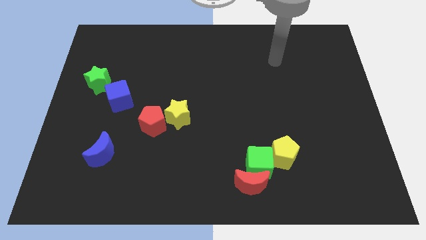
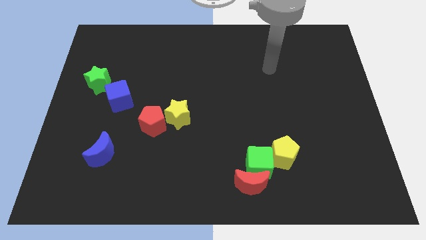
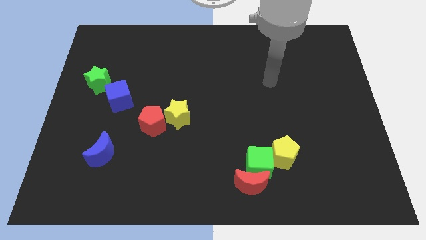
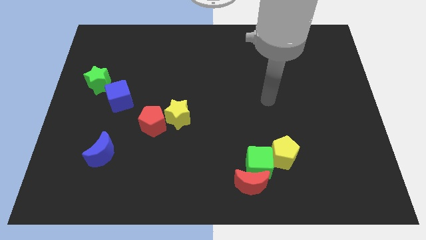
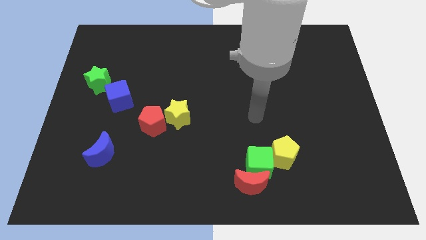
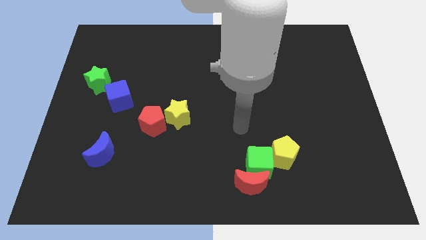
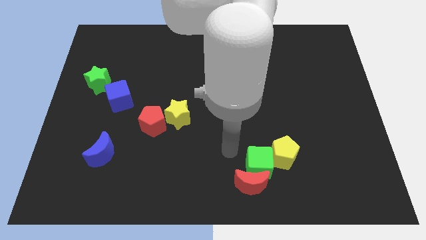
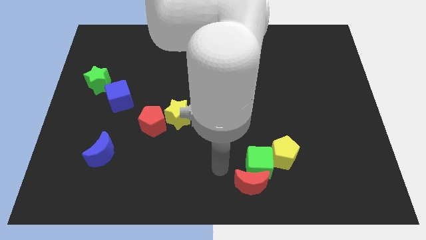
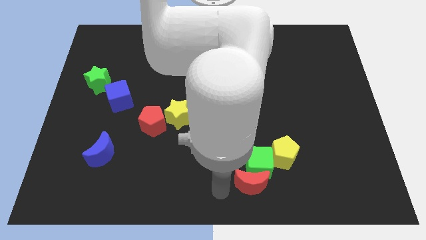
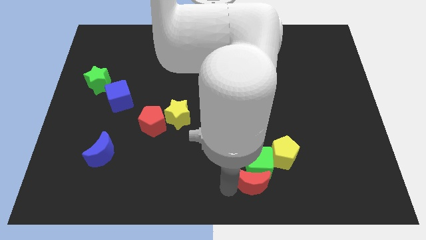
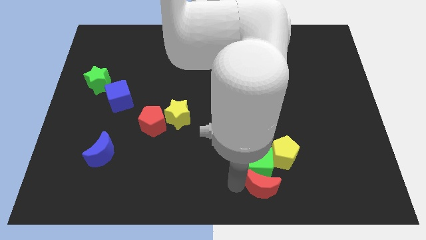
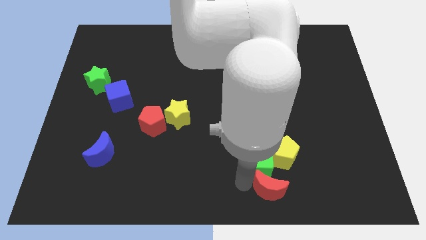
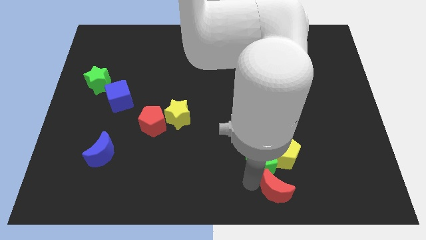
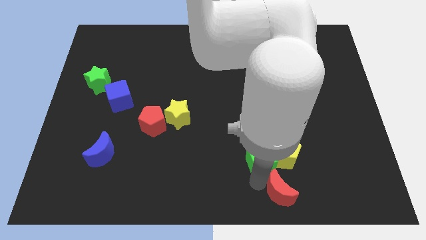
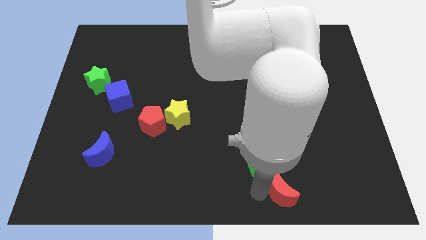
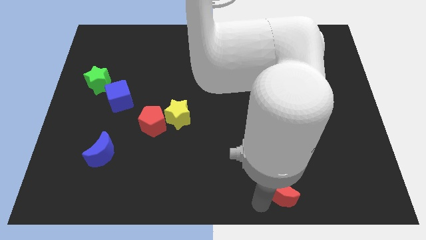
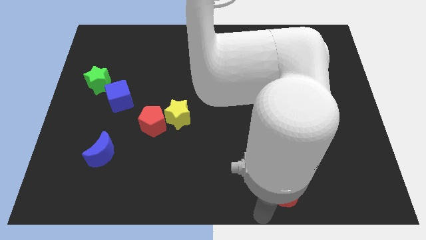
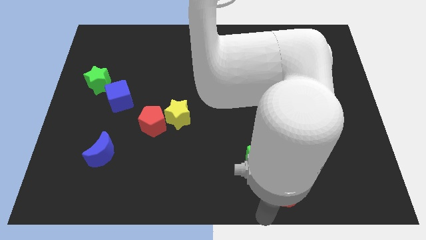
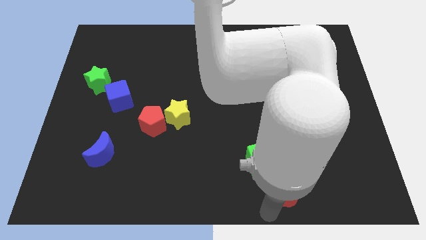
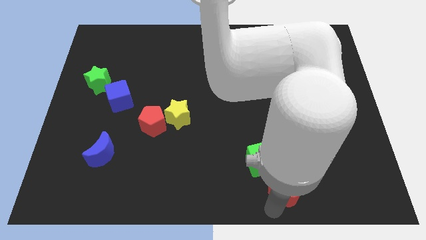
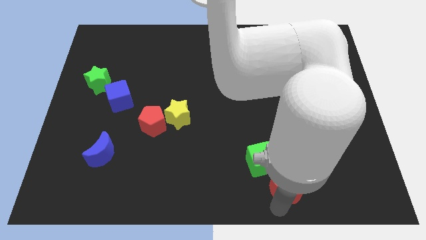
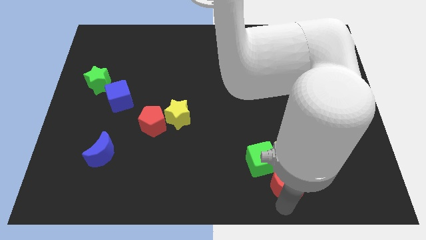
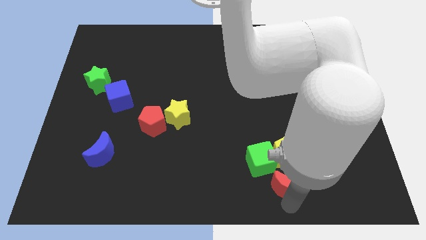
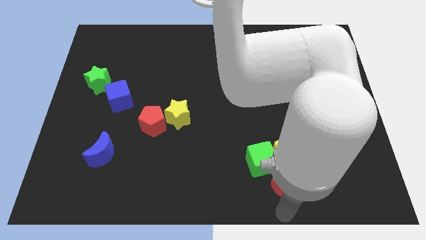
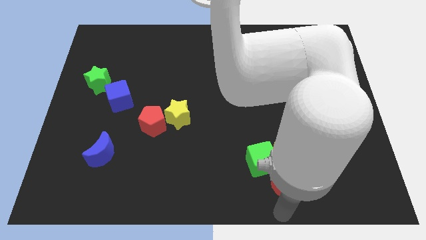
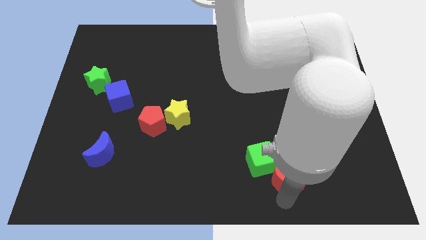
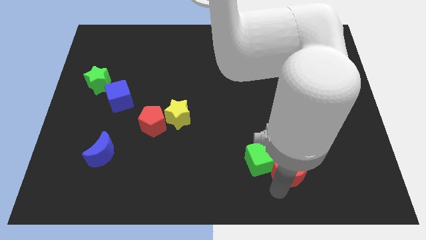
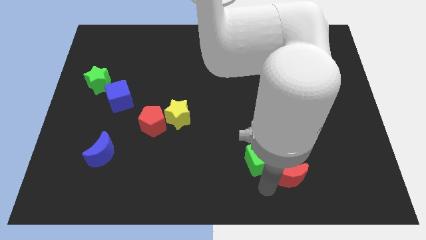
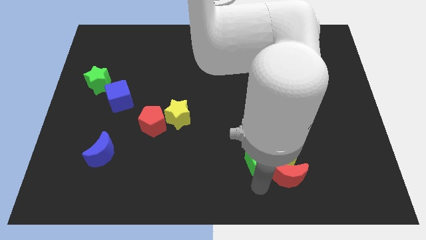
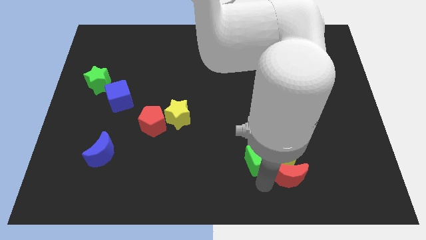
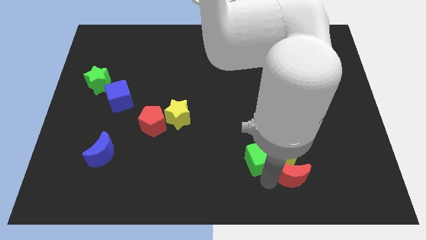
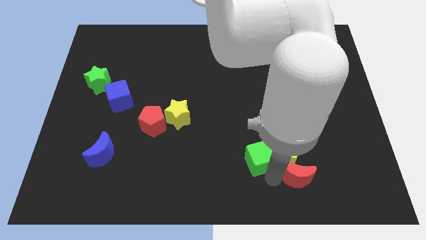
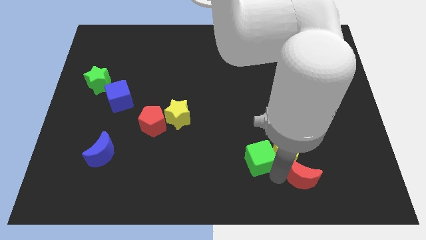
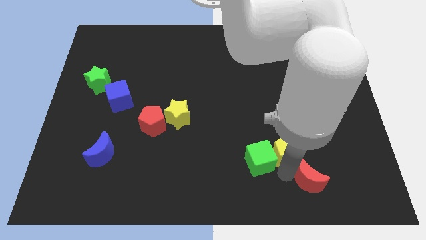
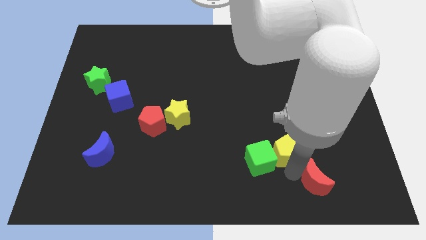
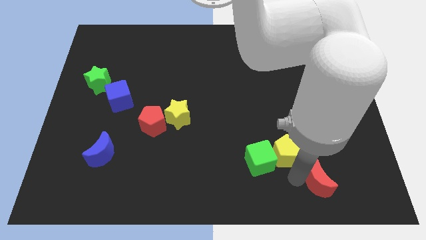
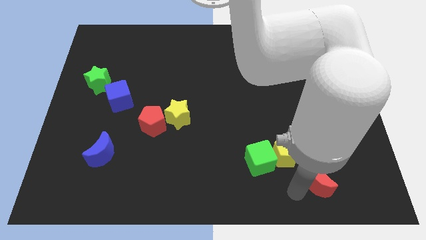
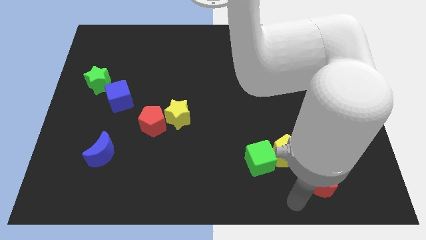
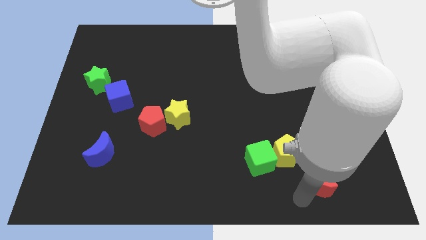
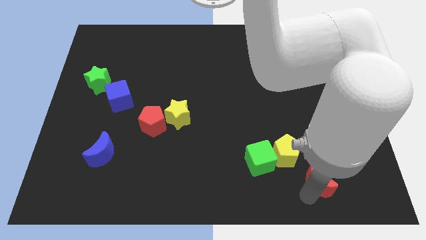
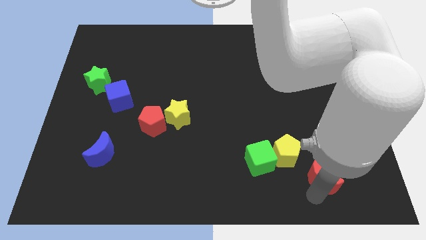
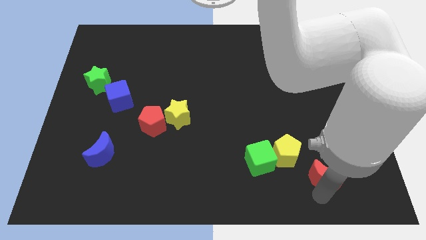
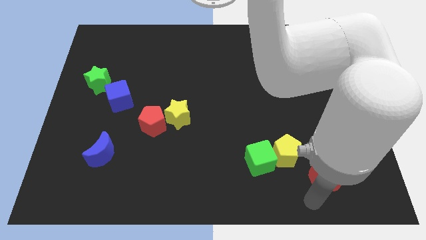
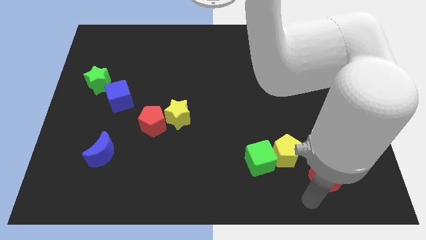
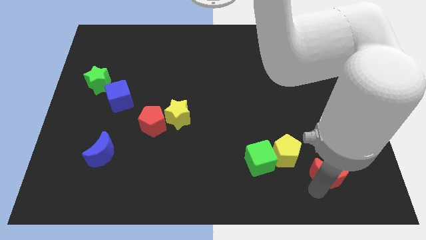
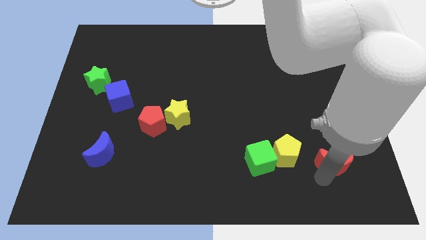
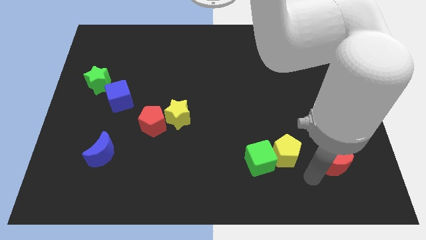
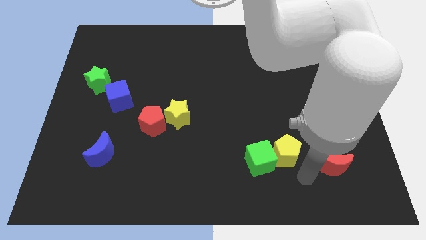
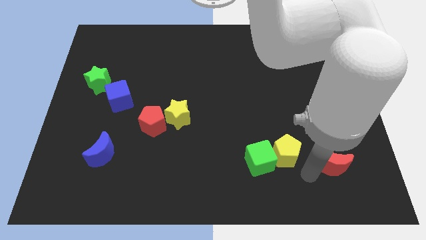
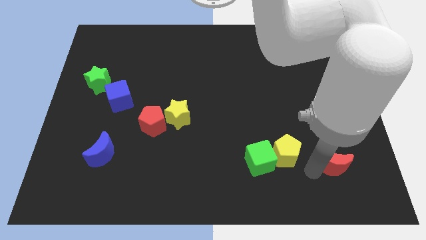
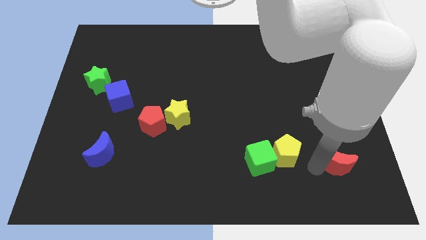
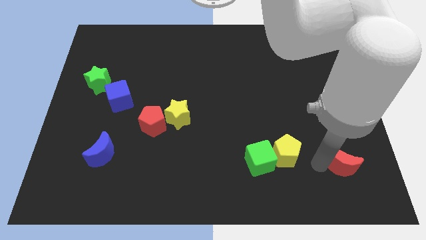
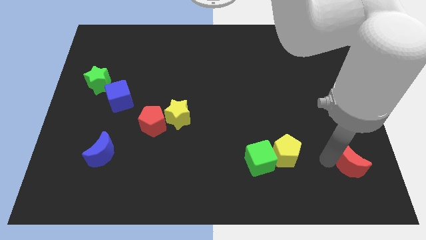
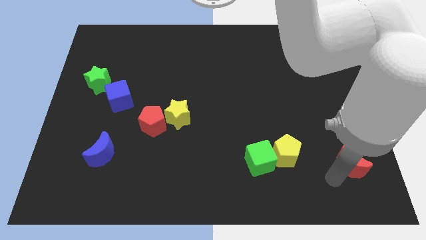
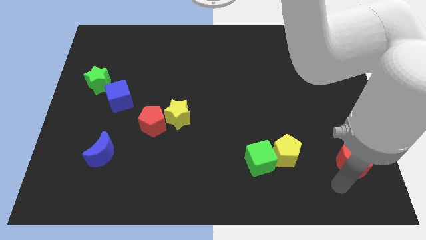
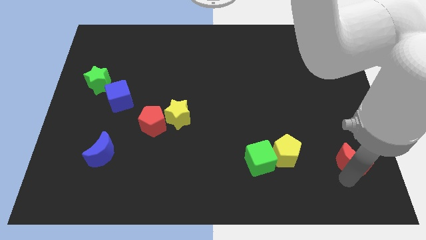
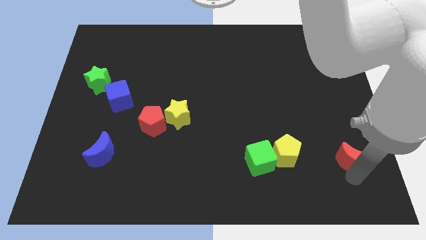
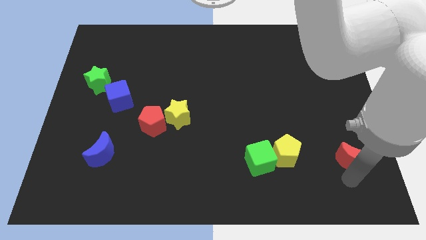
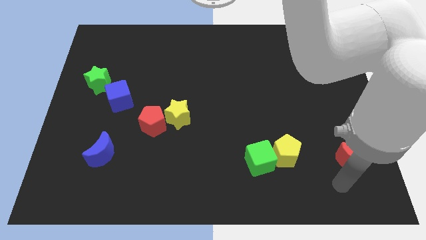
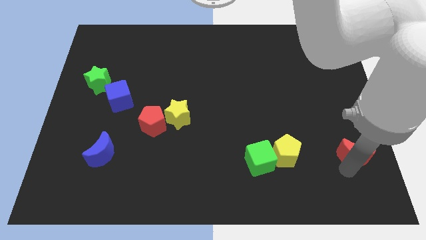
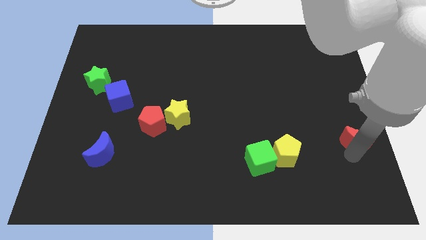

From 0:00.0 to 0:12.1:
move the red moon to the right side of the board
